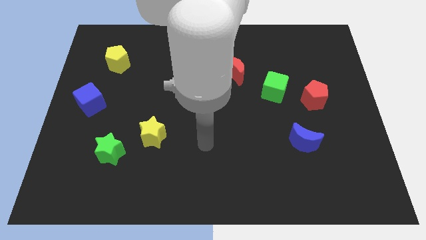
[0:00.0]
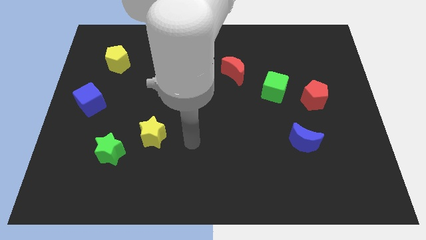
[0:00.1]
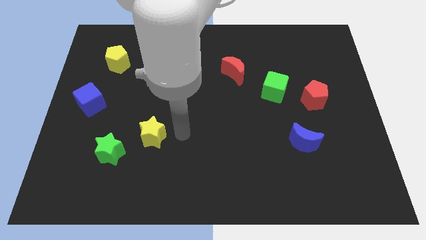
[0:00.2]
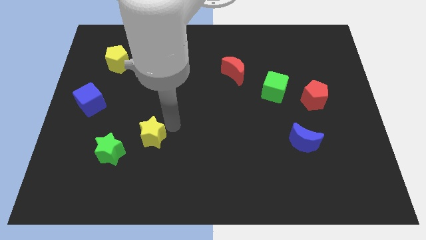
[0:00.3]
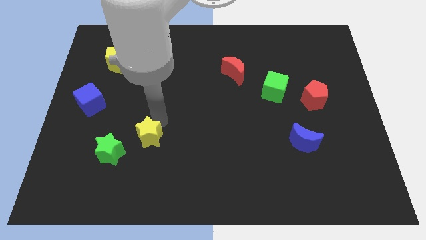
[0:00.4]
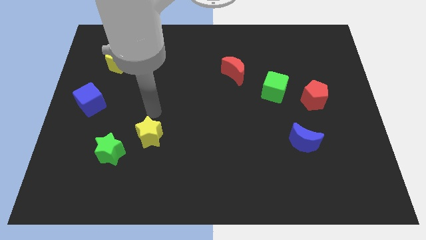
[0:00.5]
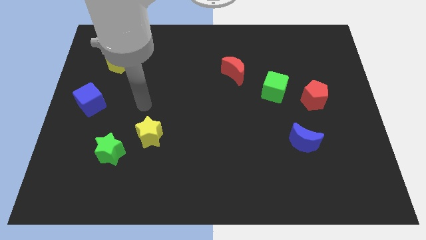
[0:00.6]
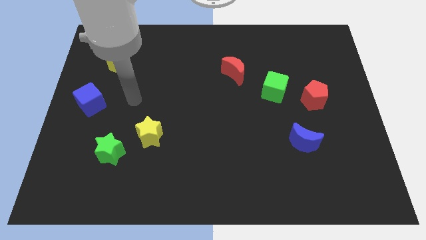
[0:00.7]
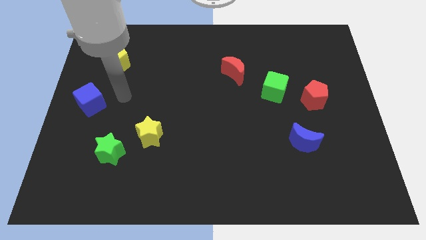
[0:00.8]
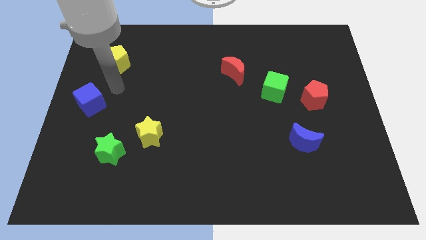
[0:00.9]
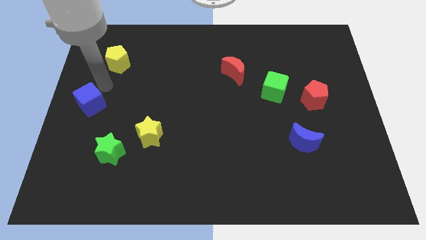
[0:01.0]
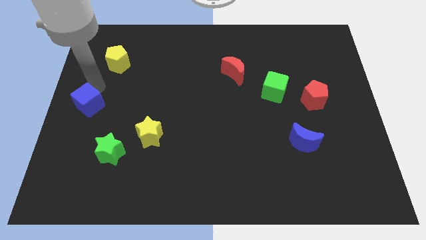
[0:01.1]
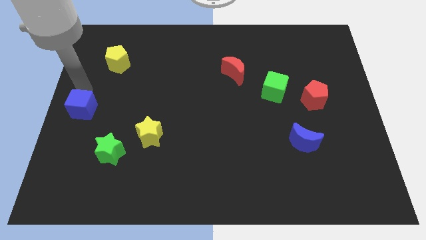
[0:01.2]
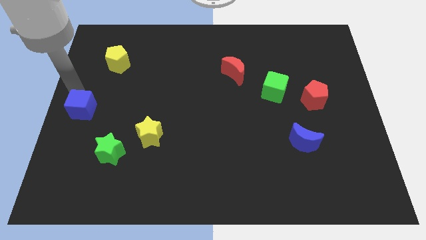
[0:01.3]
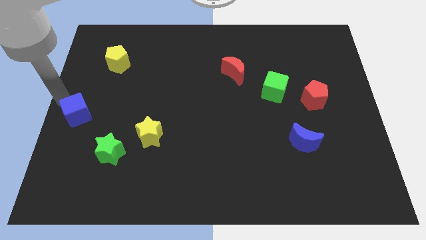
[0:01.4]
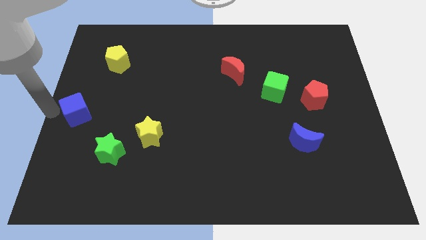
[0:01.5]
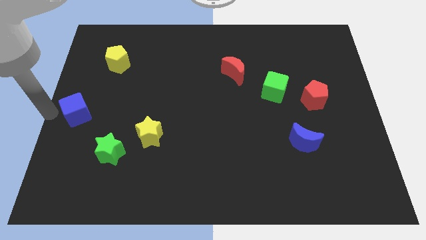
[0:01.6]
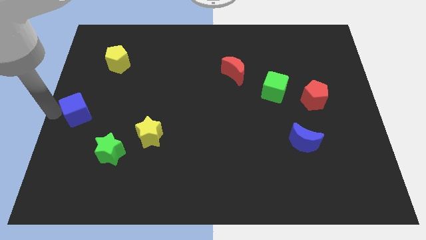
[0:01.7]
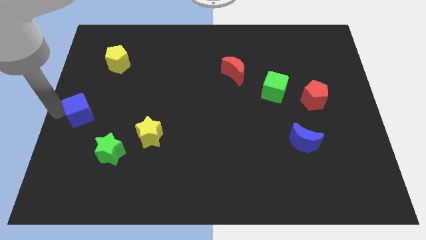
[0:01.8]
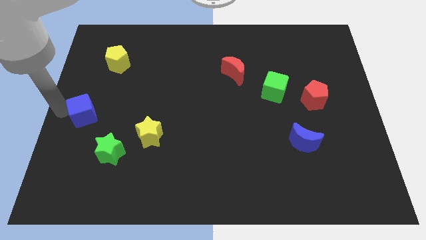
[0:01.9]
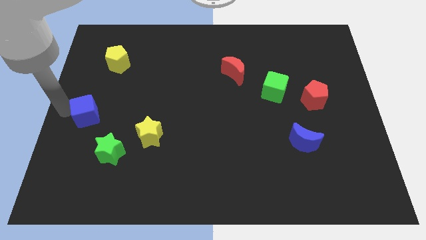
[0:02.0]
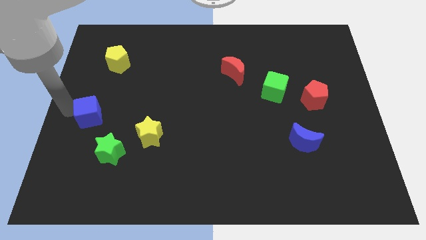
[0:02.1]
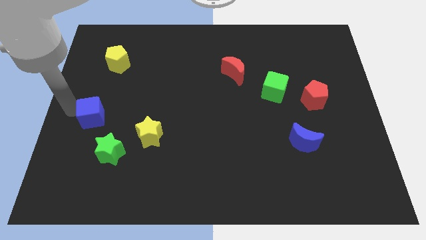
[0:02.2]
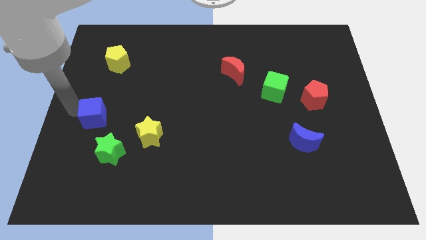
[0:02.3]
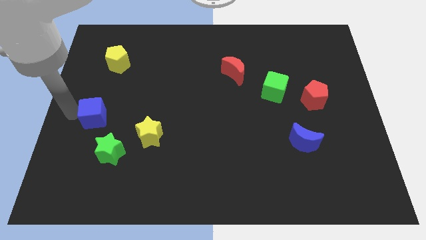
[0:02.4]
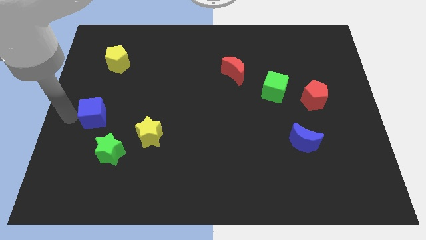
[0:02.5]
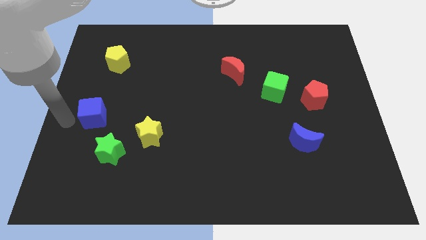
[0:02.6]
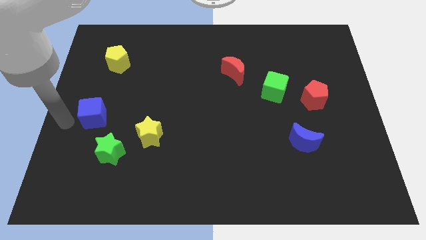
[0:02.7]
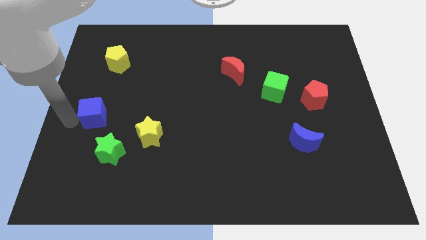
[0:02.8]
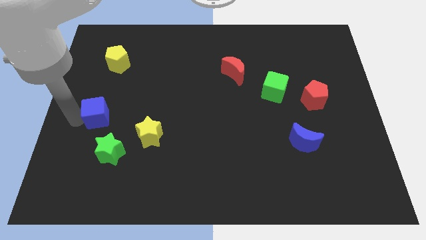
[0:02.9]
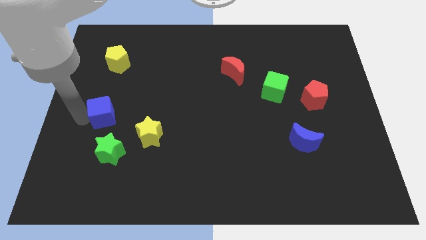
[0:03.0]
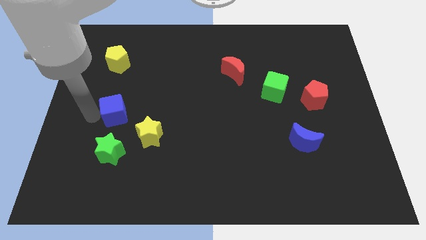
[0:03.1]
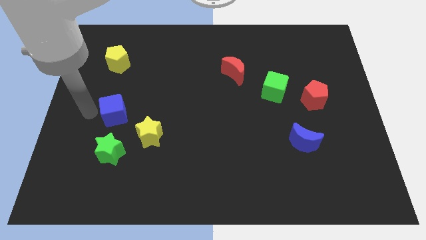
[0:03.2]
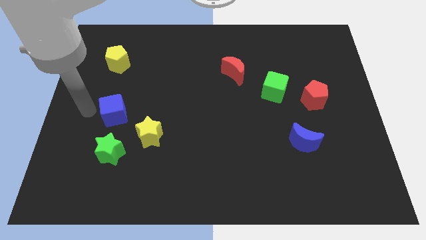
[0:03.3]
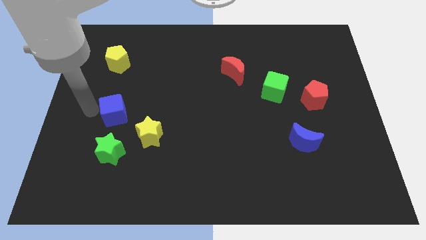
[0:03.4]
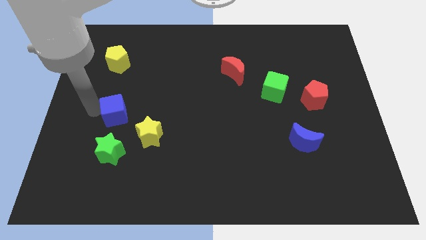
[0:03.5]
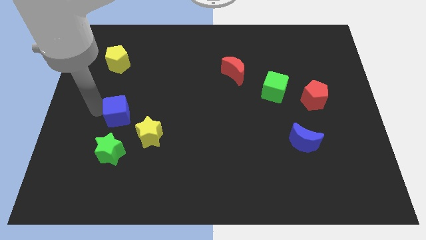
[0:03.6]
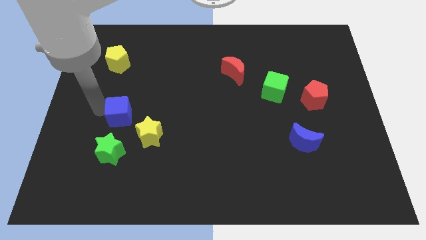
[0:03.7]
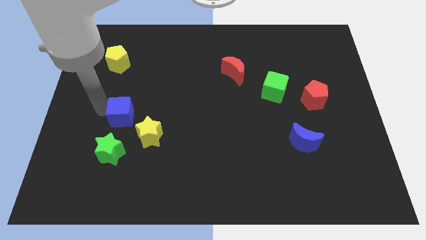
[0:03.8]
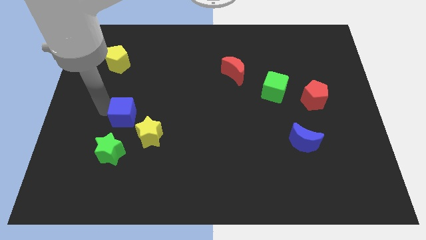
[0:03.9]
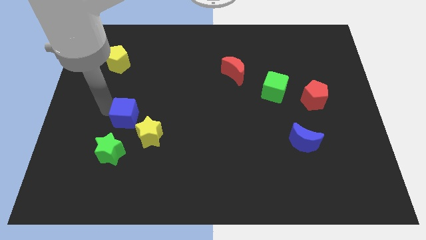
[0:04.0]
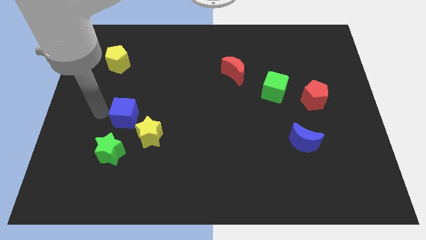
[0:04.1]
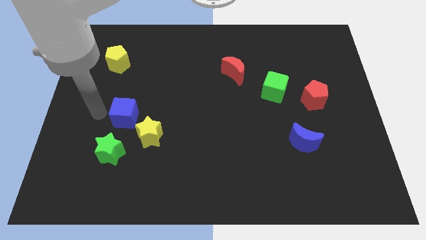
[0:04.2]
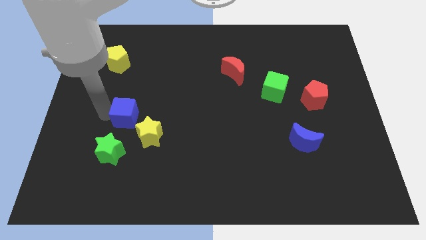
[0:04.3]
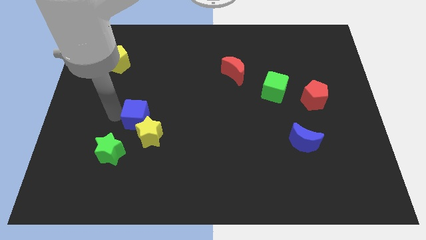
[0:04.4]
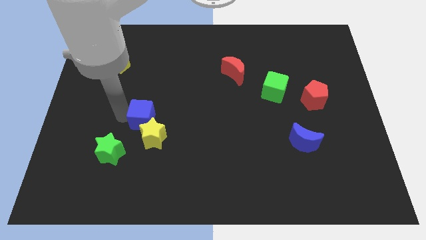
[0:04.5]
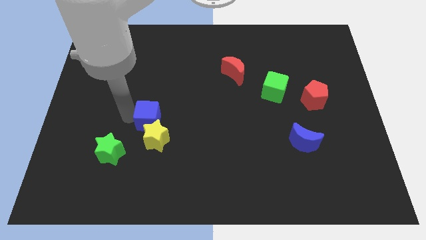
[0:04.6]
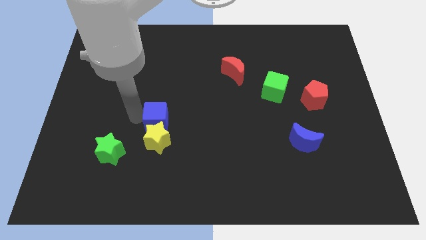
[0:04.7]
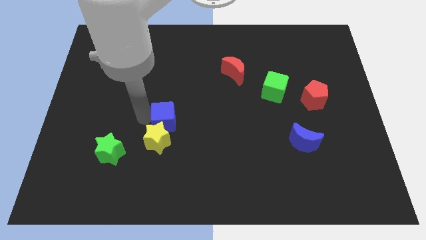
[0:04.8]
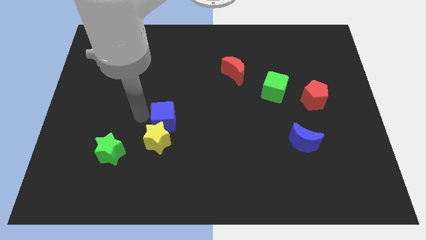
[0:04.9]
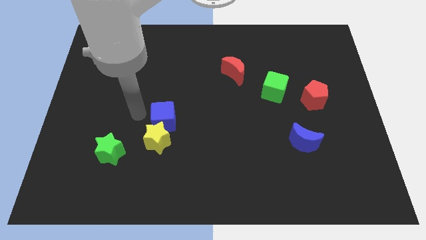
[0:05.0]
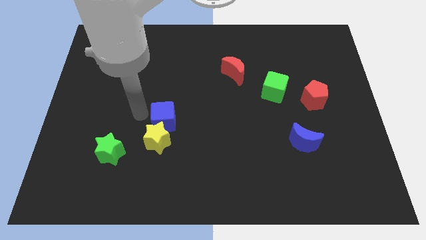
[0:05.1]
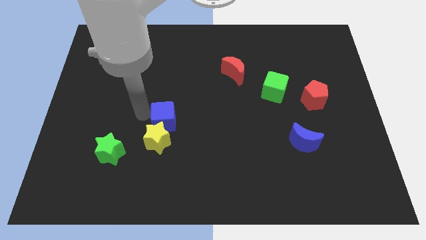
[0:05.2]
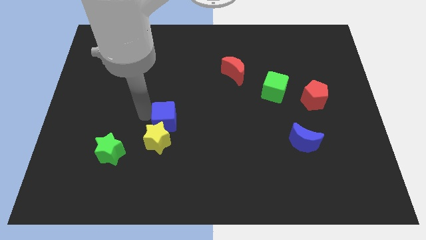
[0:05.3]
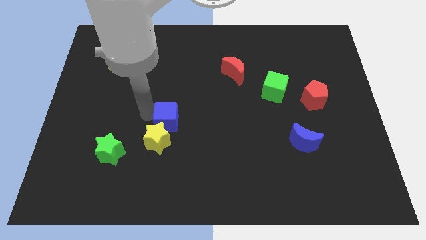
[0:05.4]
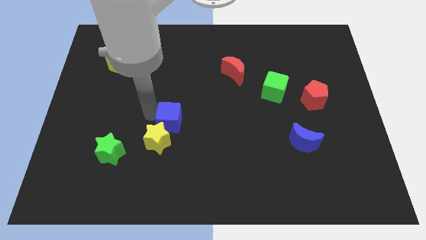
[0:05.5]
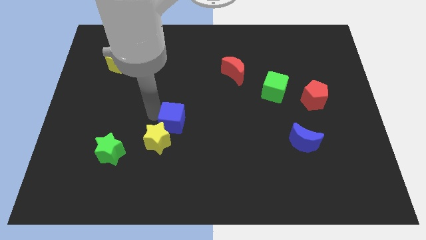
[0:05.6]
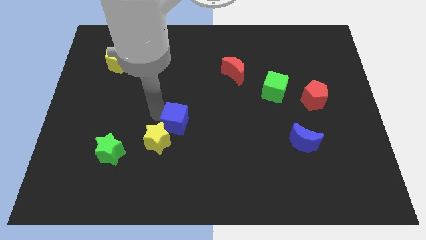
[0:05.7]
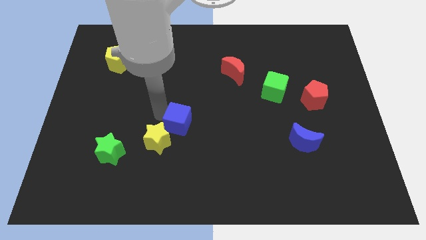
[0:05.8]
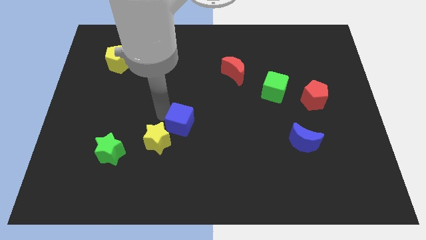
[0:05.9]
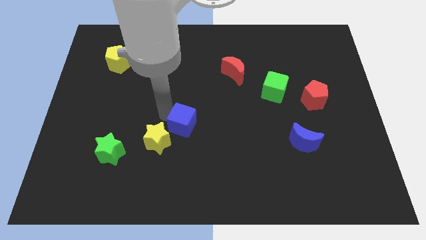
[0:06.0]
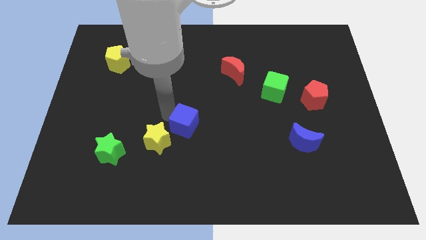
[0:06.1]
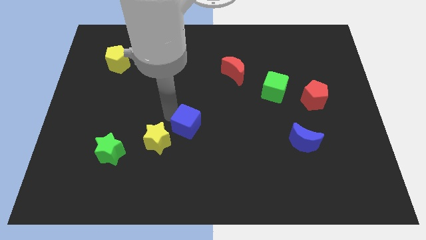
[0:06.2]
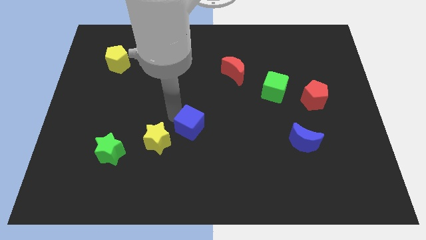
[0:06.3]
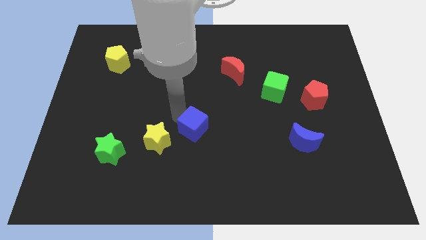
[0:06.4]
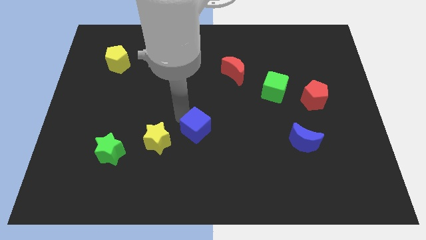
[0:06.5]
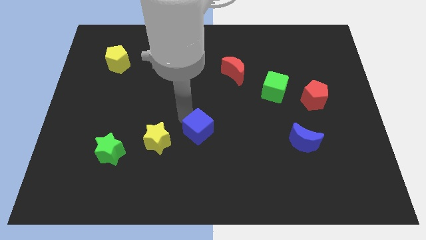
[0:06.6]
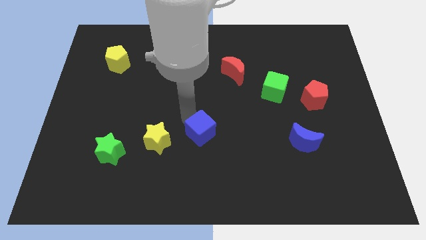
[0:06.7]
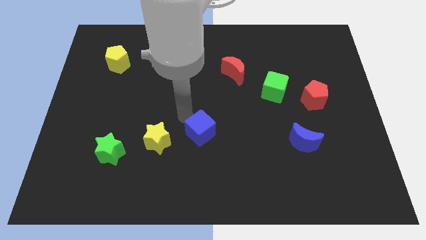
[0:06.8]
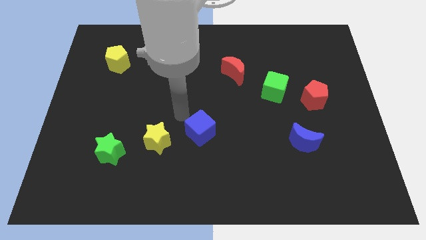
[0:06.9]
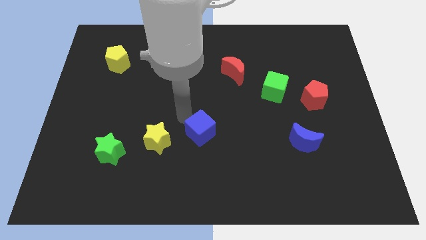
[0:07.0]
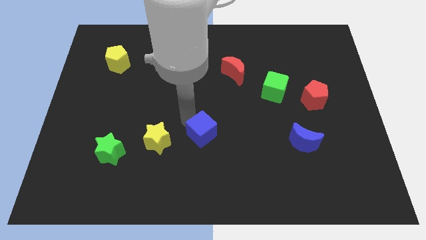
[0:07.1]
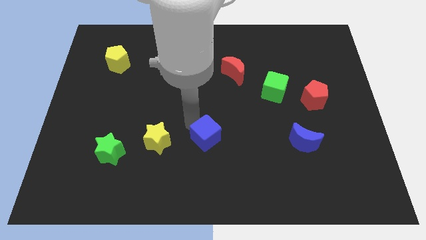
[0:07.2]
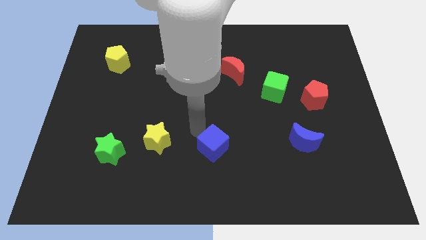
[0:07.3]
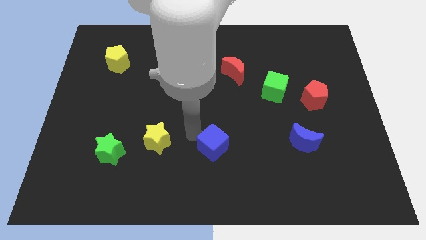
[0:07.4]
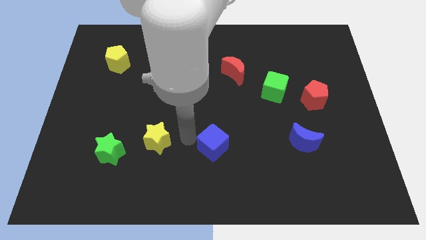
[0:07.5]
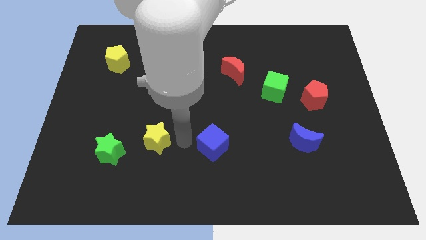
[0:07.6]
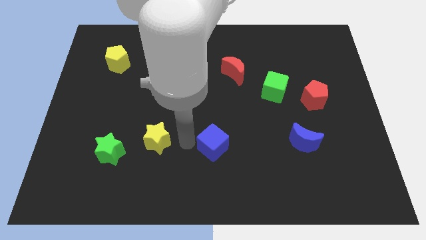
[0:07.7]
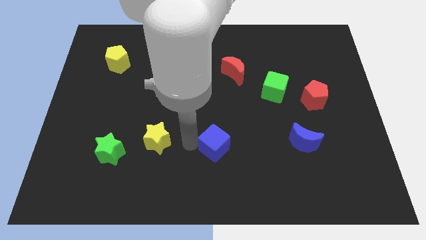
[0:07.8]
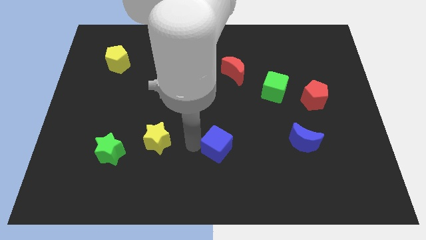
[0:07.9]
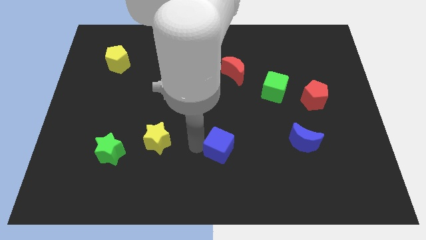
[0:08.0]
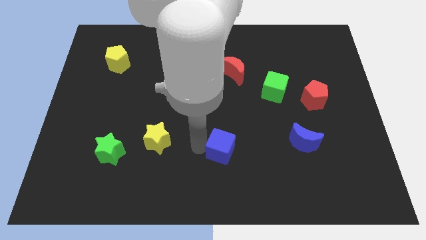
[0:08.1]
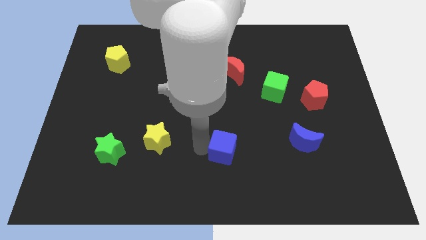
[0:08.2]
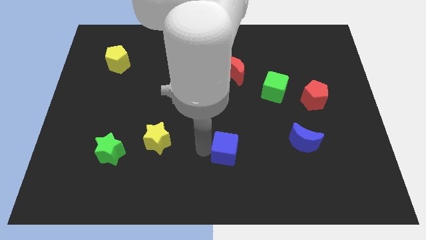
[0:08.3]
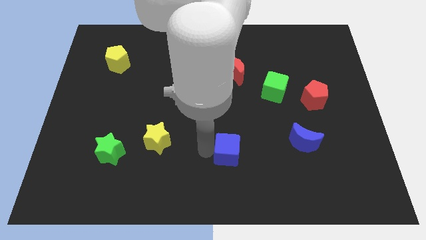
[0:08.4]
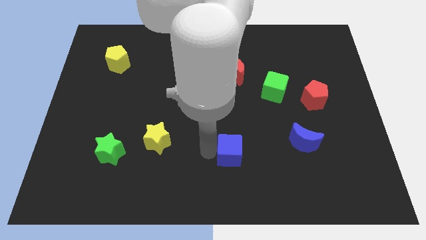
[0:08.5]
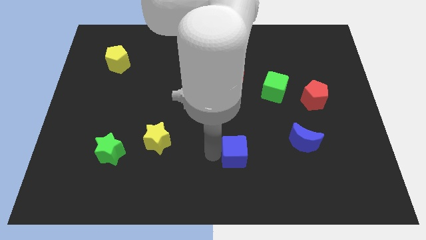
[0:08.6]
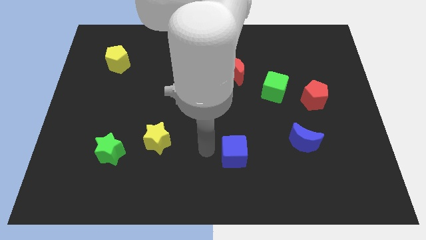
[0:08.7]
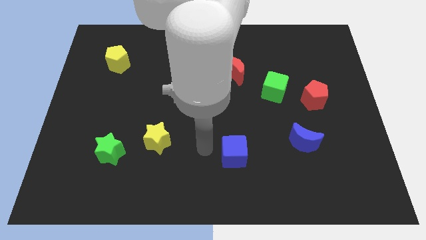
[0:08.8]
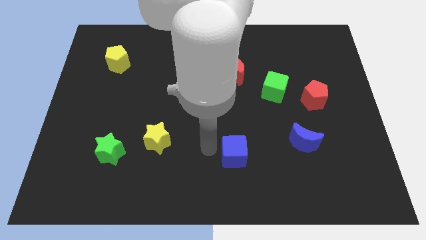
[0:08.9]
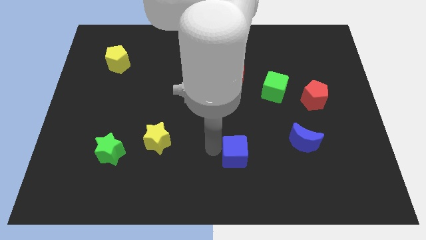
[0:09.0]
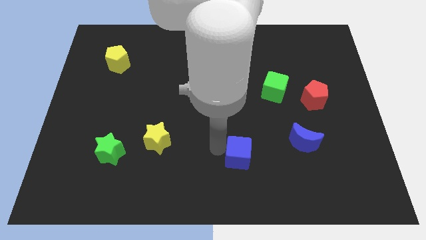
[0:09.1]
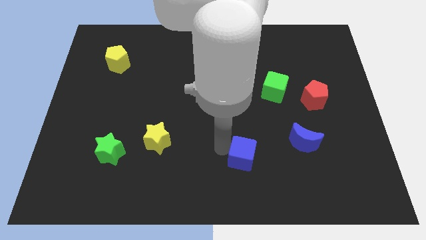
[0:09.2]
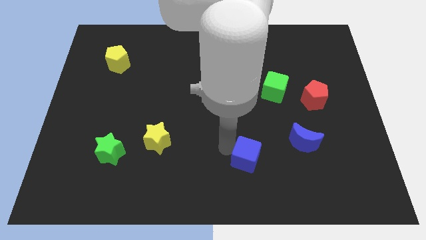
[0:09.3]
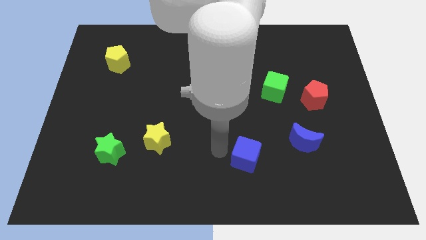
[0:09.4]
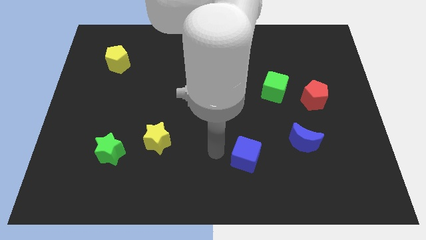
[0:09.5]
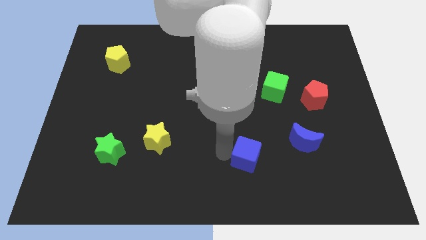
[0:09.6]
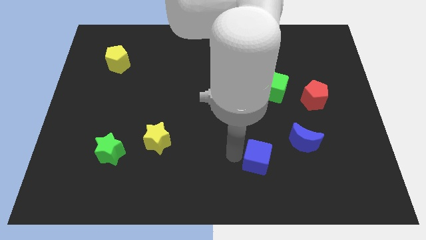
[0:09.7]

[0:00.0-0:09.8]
move the blue cube to the bottom left side of the blue moon
